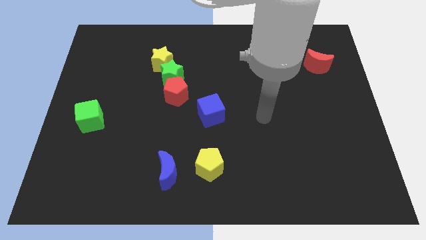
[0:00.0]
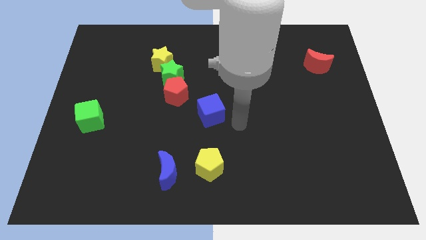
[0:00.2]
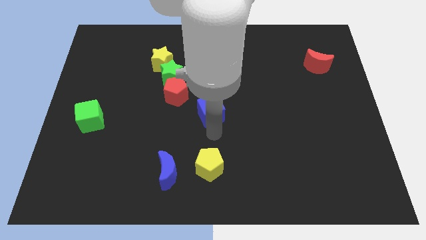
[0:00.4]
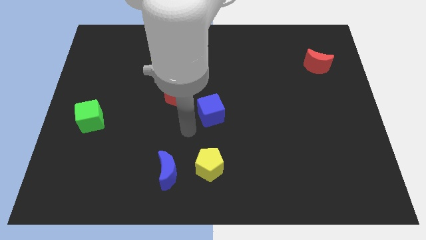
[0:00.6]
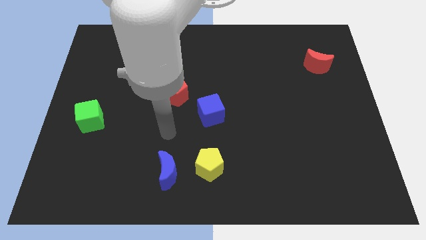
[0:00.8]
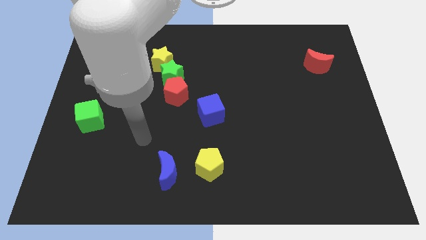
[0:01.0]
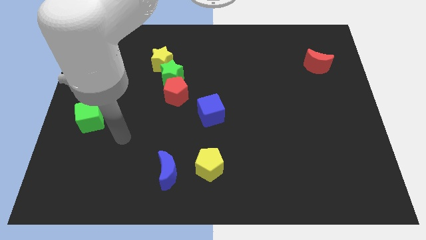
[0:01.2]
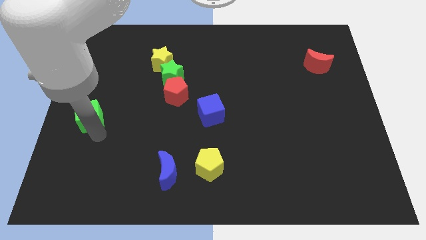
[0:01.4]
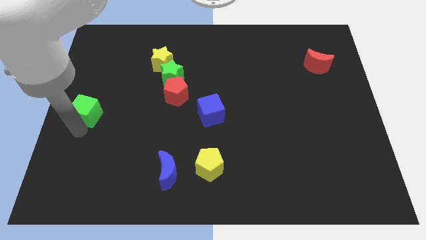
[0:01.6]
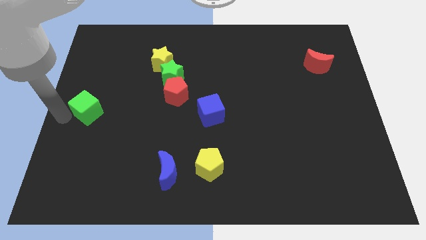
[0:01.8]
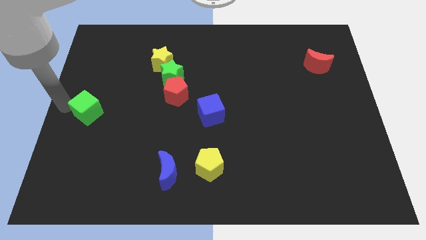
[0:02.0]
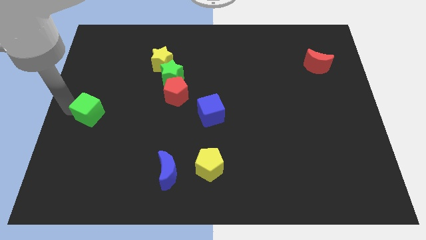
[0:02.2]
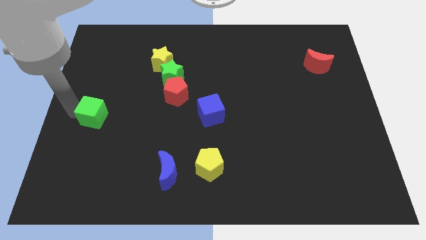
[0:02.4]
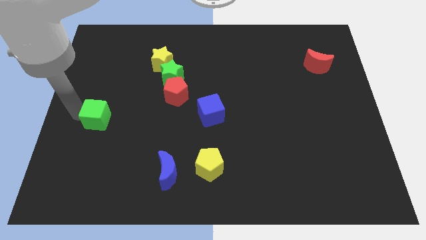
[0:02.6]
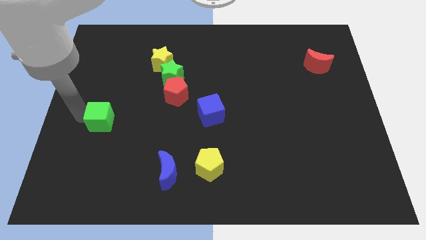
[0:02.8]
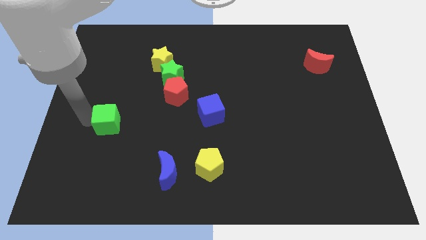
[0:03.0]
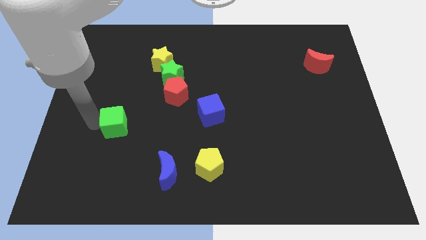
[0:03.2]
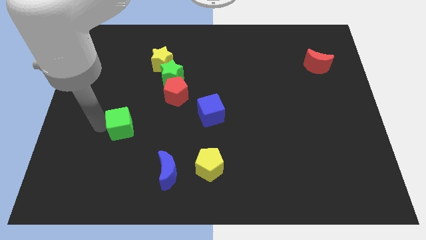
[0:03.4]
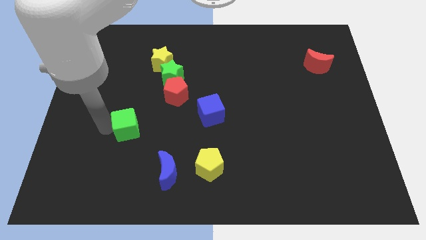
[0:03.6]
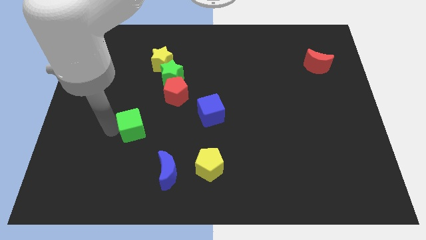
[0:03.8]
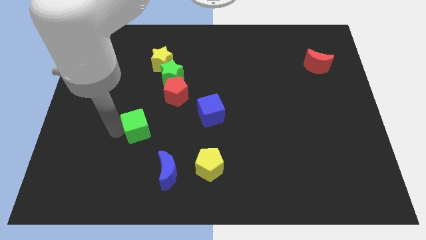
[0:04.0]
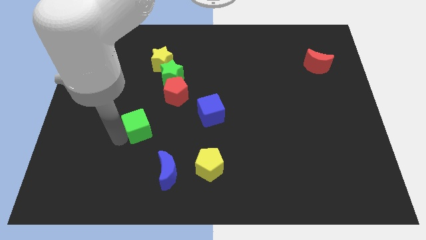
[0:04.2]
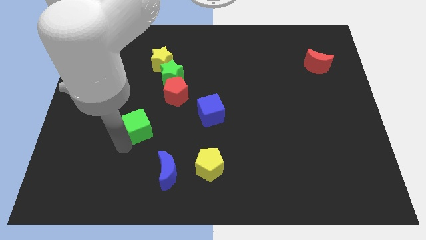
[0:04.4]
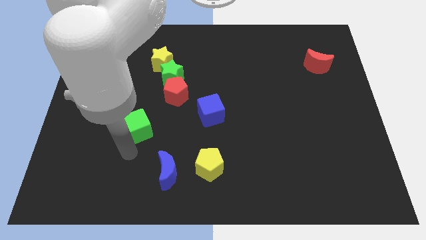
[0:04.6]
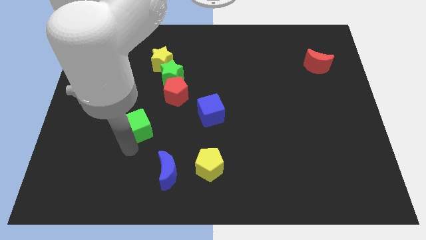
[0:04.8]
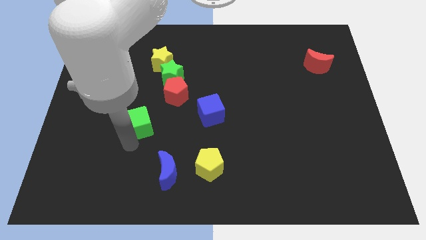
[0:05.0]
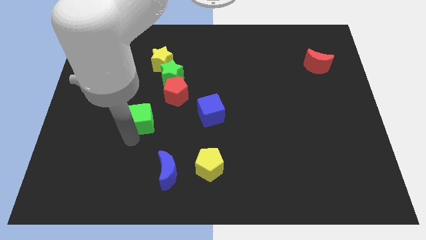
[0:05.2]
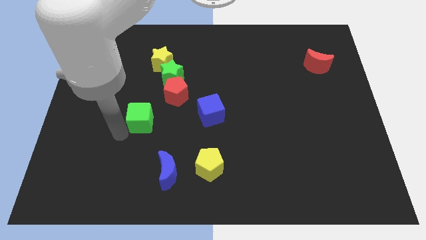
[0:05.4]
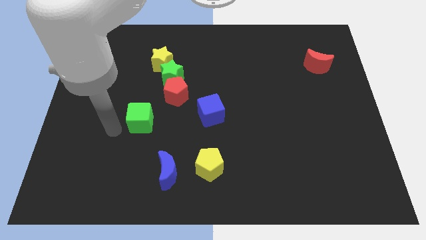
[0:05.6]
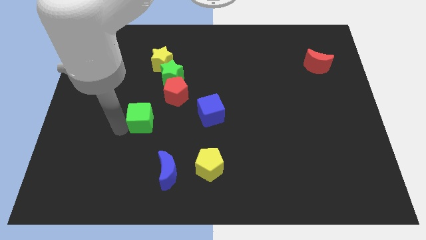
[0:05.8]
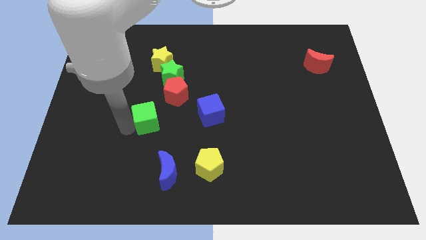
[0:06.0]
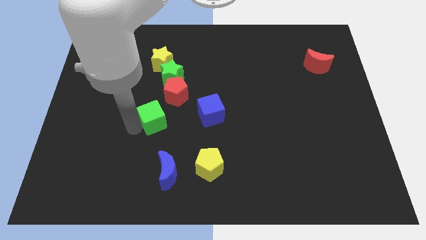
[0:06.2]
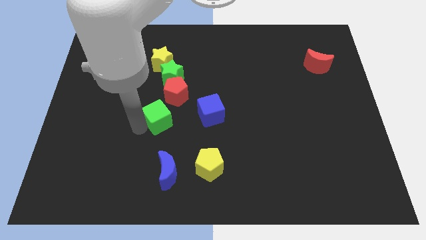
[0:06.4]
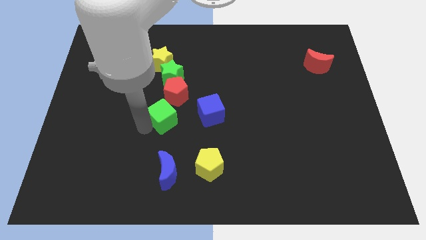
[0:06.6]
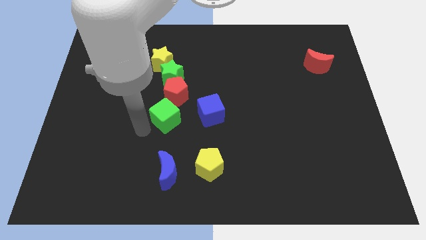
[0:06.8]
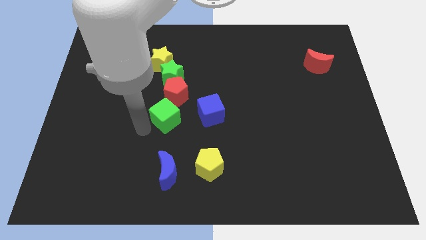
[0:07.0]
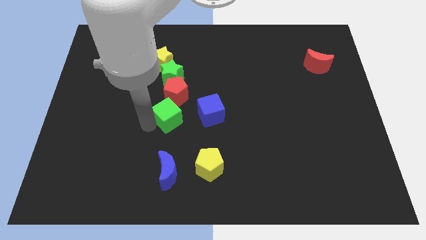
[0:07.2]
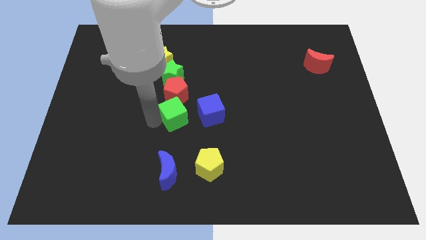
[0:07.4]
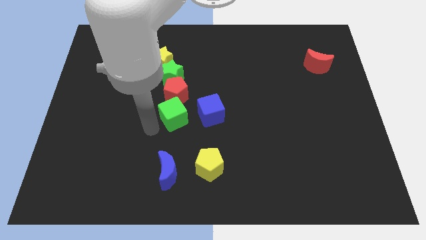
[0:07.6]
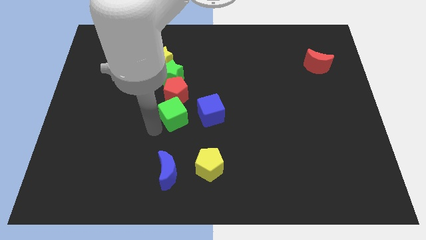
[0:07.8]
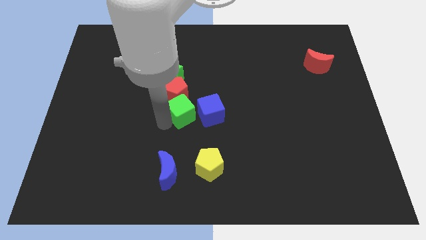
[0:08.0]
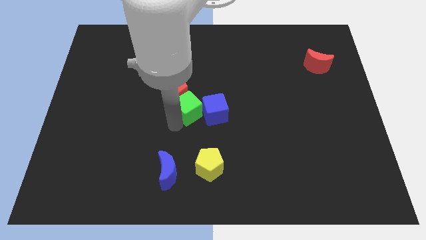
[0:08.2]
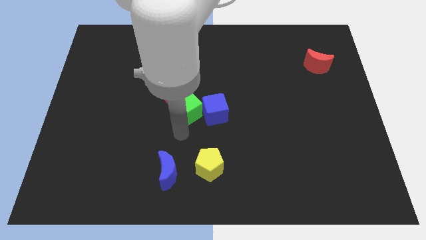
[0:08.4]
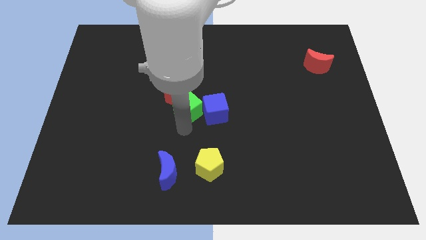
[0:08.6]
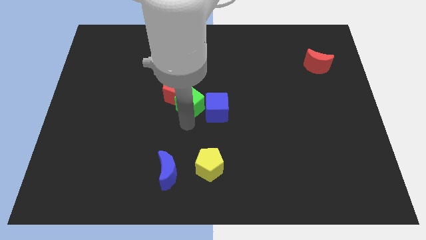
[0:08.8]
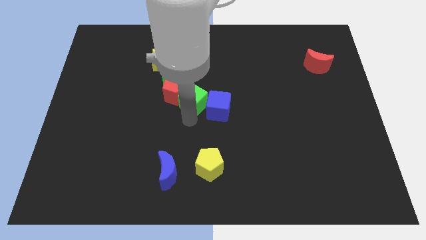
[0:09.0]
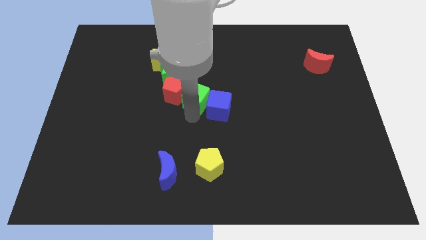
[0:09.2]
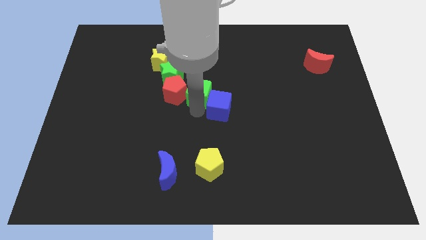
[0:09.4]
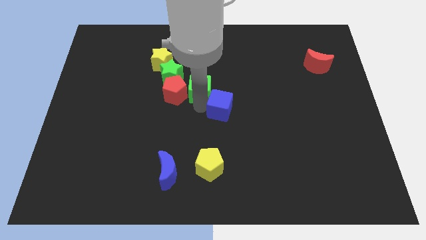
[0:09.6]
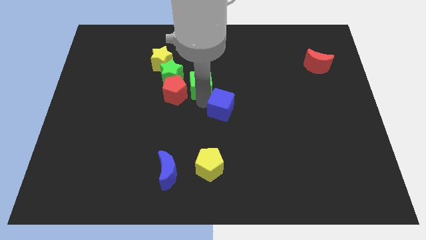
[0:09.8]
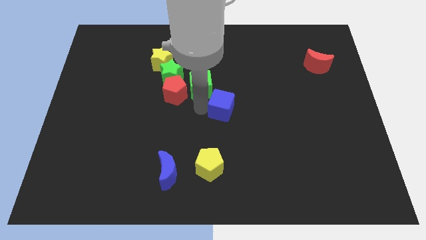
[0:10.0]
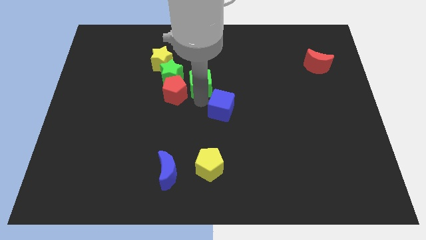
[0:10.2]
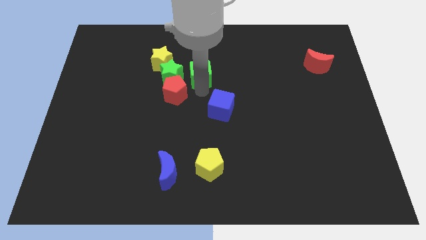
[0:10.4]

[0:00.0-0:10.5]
push the green cube diagonally up and to the right of the green star

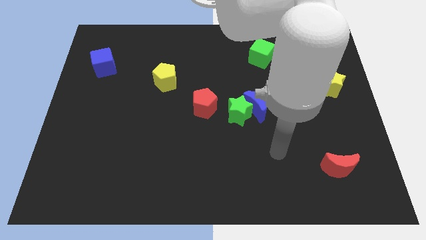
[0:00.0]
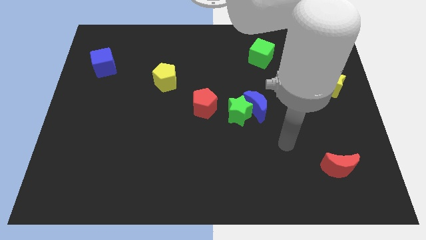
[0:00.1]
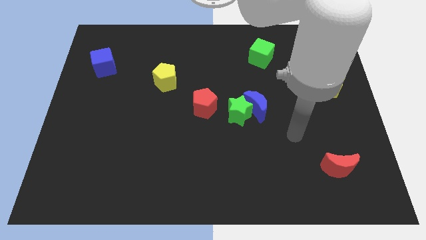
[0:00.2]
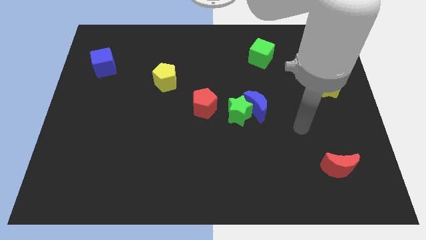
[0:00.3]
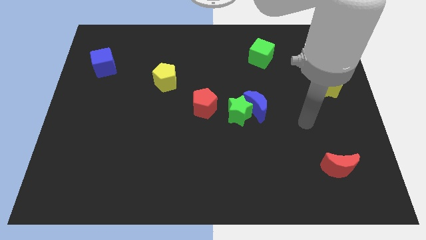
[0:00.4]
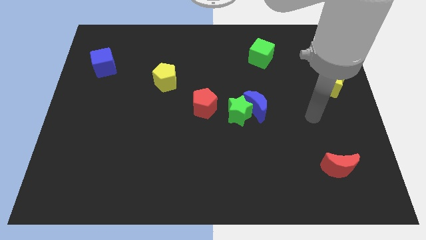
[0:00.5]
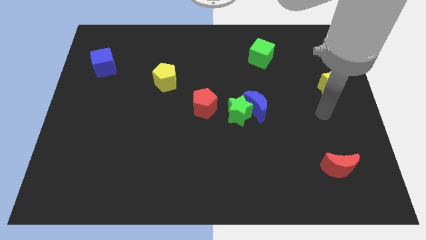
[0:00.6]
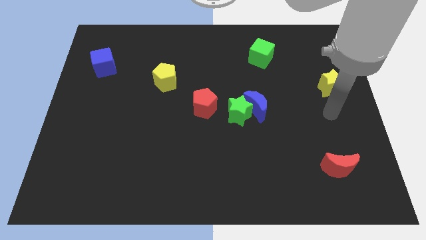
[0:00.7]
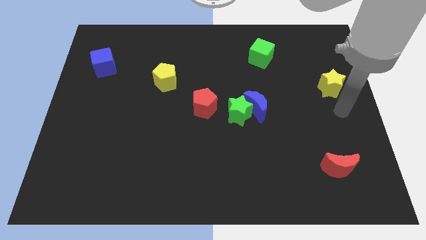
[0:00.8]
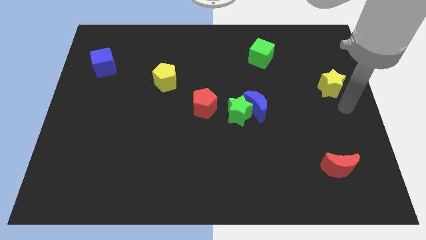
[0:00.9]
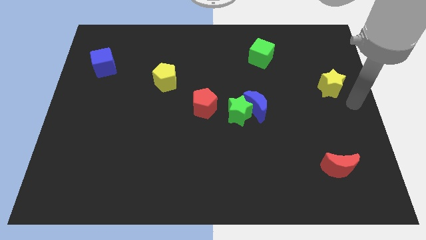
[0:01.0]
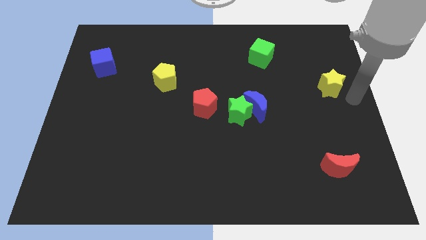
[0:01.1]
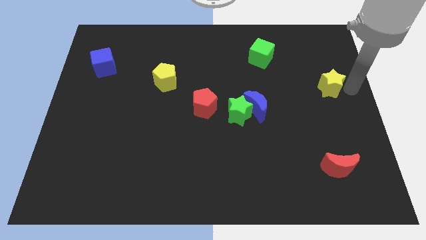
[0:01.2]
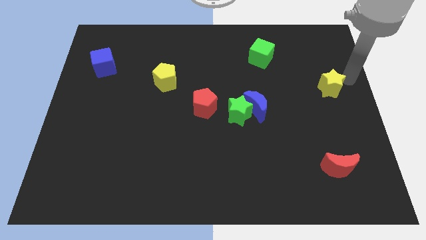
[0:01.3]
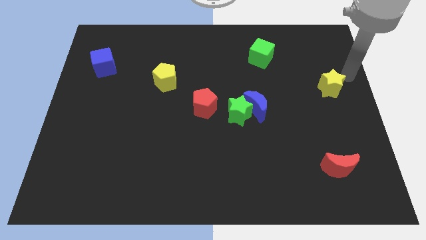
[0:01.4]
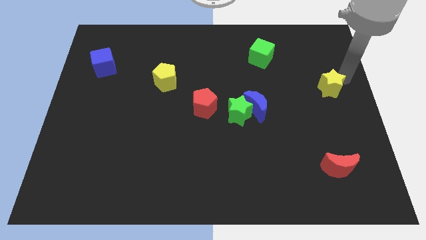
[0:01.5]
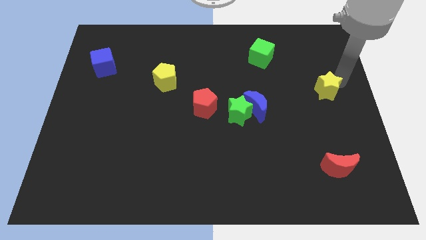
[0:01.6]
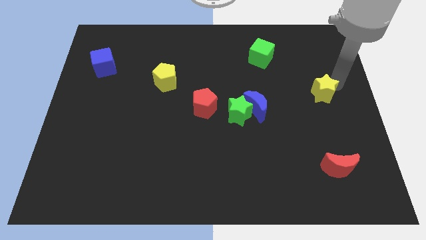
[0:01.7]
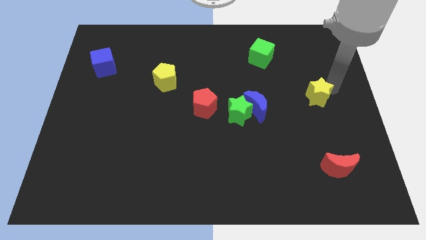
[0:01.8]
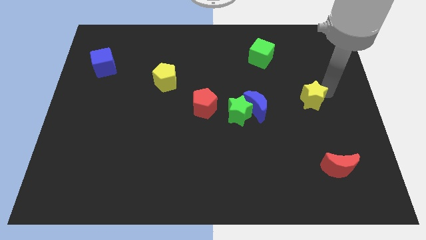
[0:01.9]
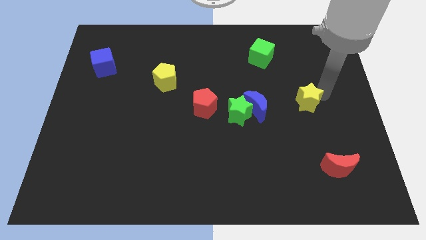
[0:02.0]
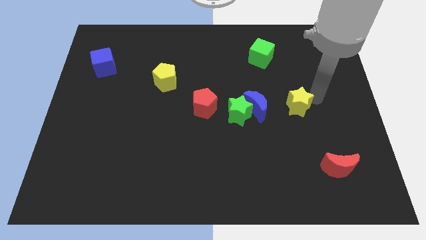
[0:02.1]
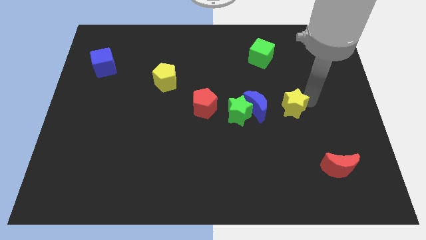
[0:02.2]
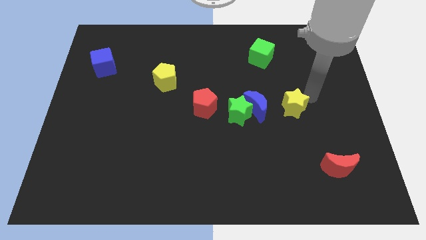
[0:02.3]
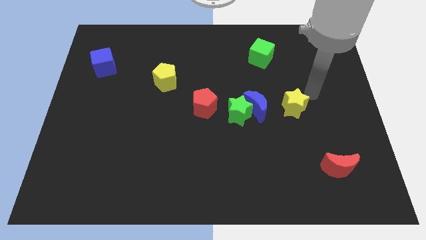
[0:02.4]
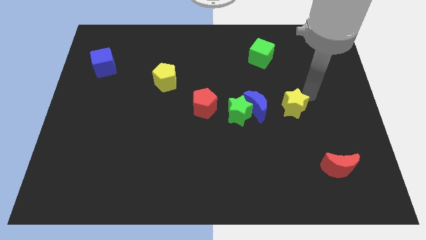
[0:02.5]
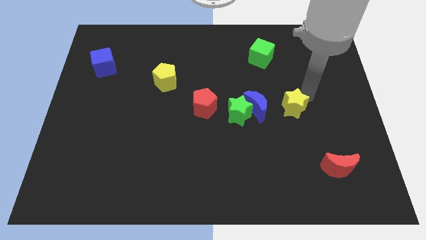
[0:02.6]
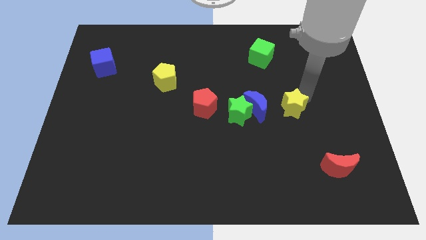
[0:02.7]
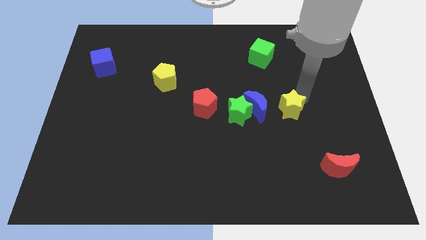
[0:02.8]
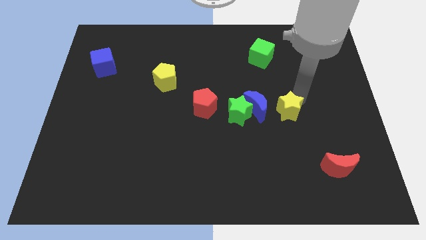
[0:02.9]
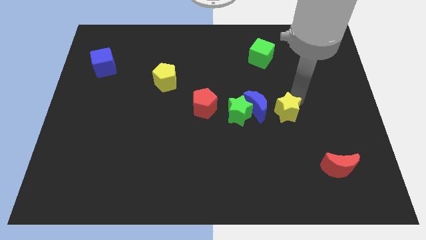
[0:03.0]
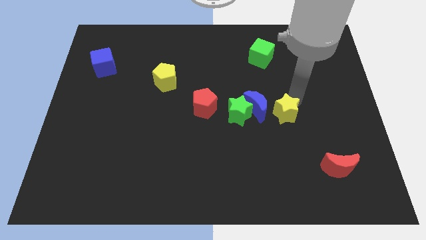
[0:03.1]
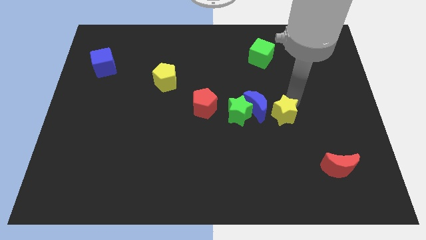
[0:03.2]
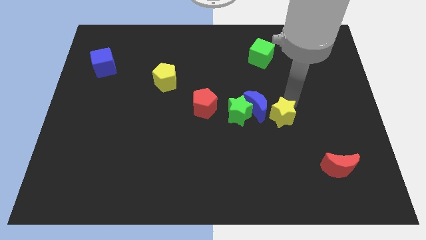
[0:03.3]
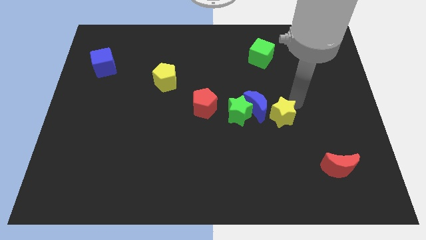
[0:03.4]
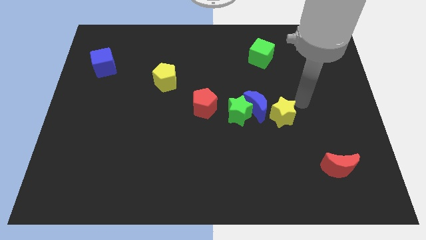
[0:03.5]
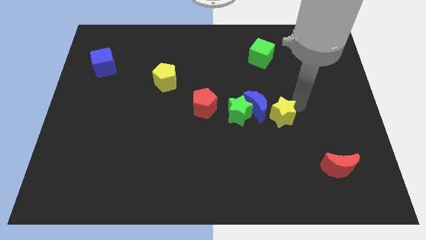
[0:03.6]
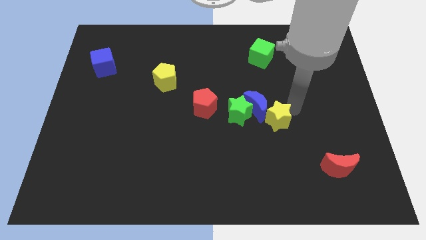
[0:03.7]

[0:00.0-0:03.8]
slide the yellow star diagonally down and to the right of the green star
